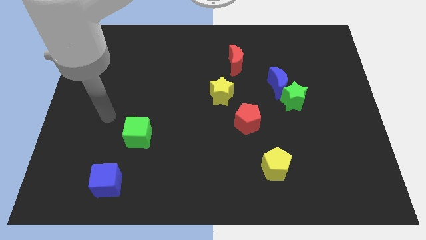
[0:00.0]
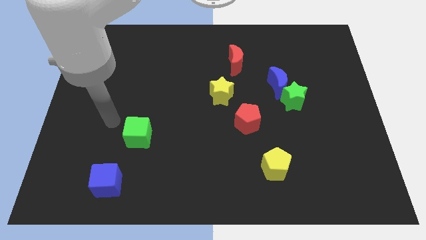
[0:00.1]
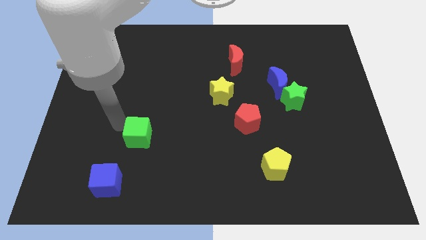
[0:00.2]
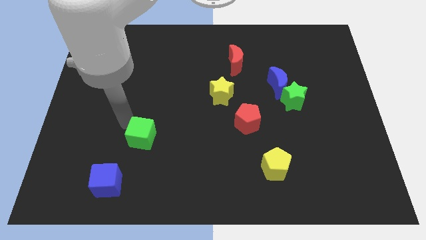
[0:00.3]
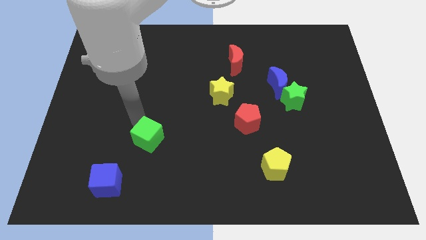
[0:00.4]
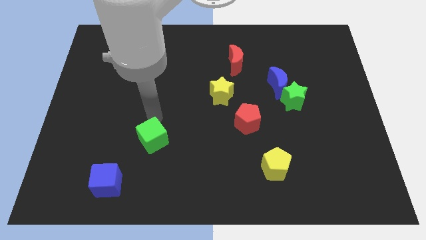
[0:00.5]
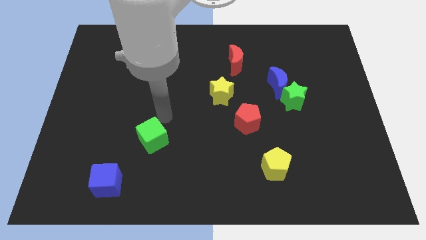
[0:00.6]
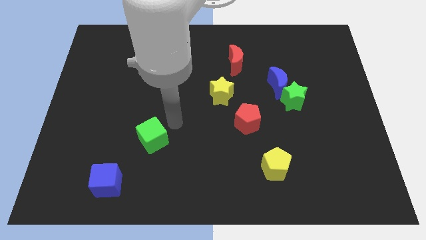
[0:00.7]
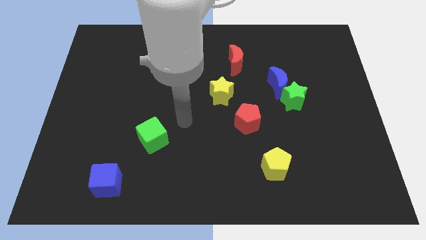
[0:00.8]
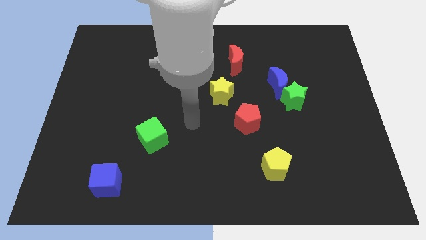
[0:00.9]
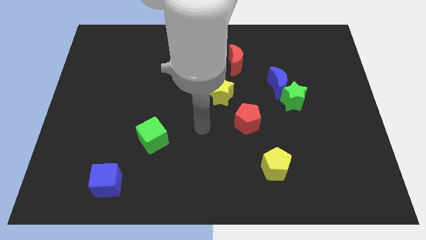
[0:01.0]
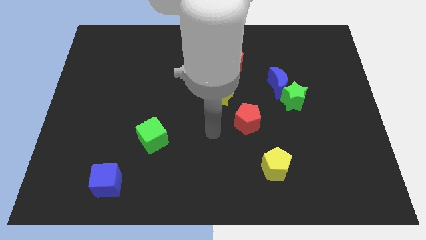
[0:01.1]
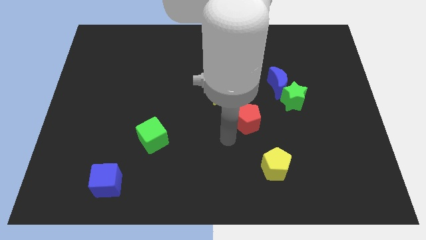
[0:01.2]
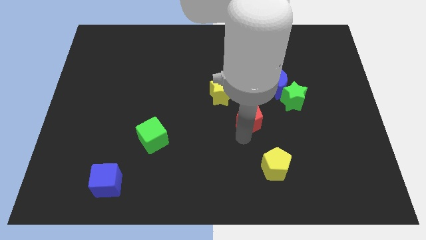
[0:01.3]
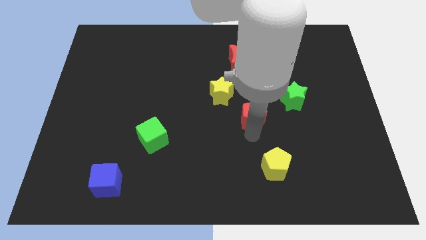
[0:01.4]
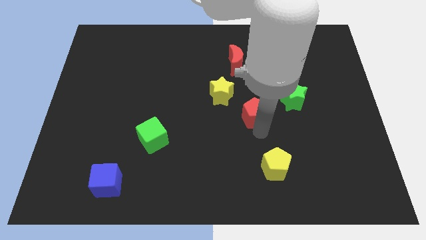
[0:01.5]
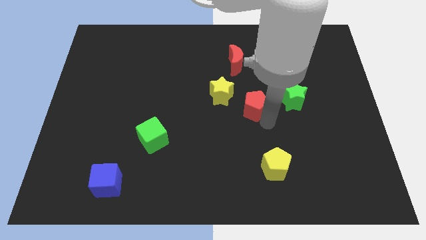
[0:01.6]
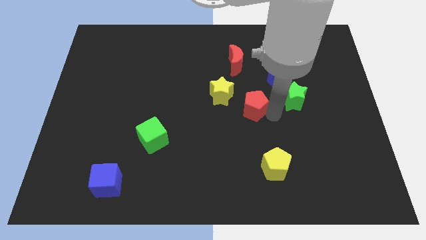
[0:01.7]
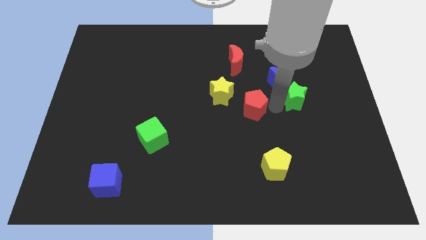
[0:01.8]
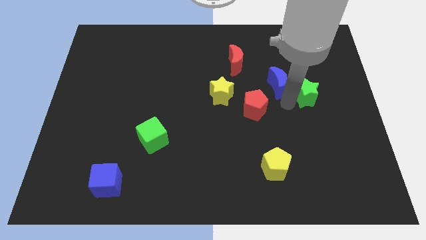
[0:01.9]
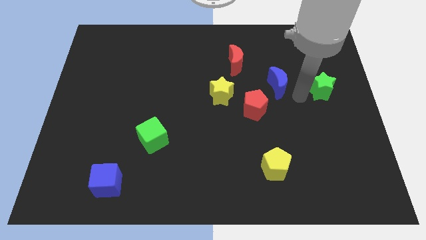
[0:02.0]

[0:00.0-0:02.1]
move the blue moon away from the green star

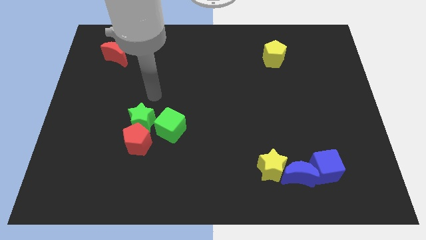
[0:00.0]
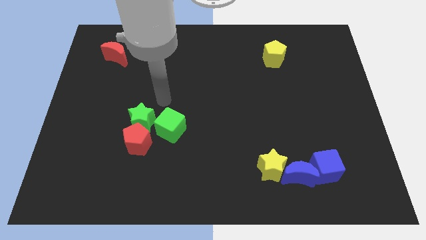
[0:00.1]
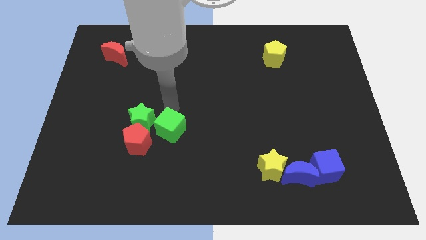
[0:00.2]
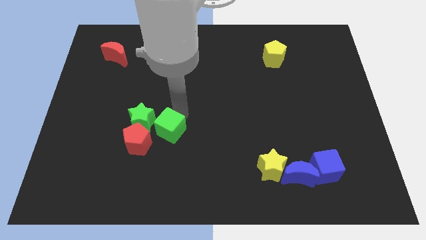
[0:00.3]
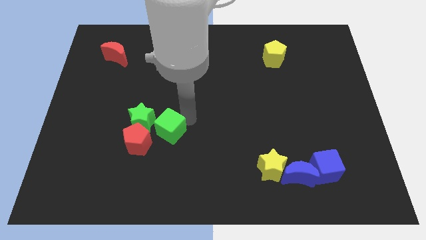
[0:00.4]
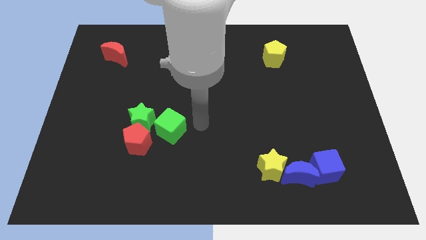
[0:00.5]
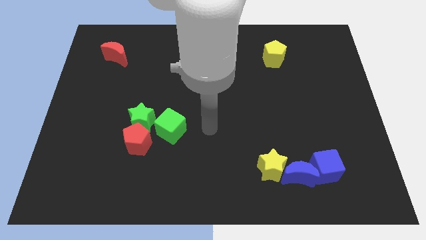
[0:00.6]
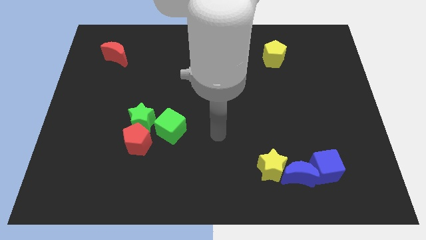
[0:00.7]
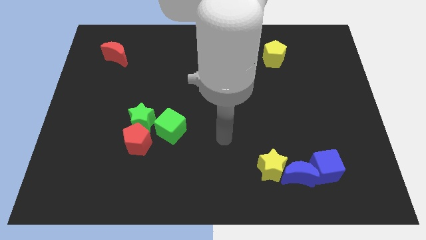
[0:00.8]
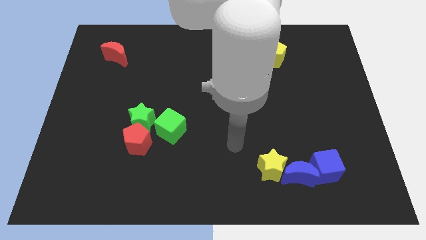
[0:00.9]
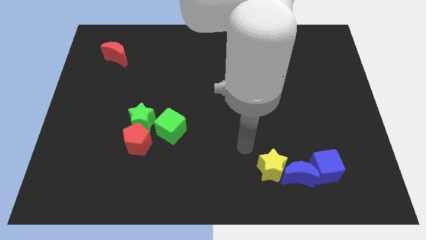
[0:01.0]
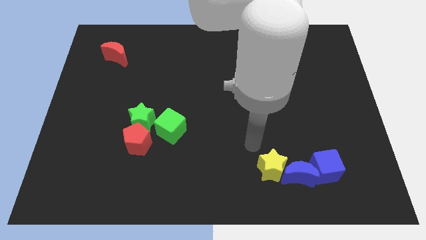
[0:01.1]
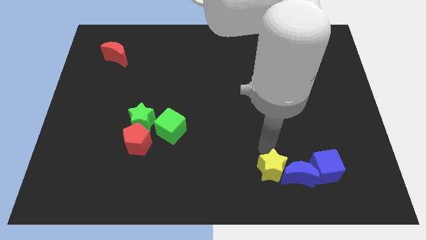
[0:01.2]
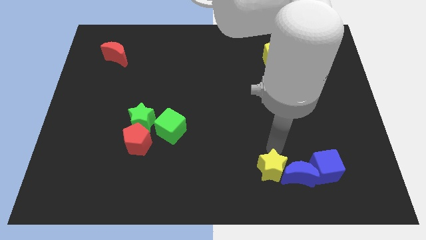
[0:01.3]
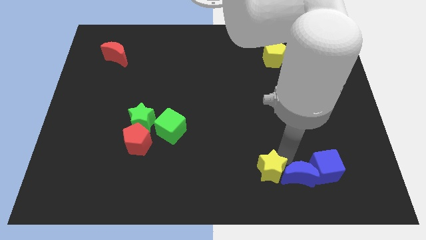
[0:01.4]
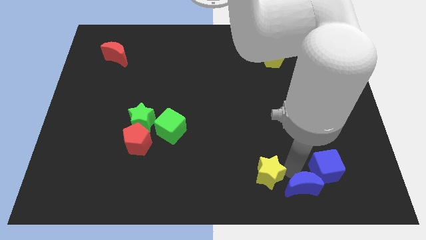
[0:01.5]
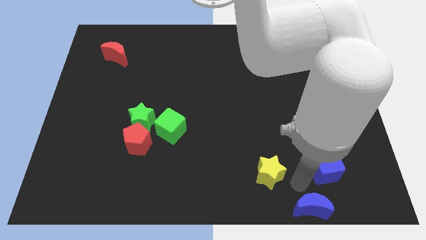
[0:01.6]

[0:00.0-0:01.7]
move the yellow star away from the blue moon

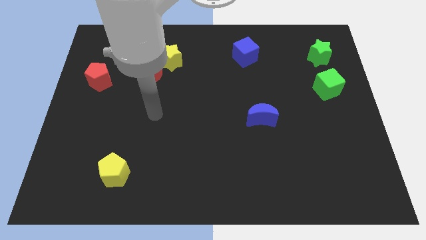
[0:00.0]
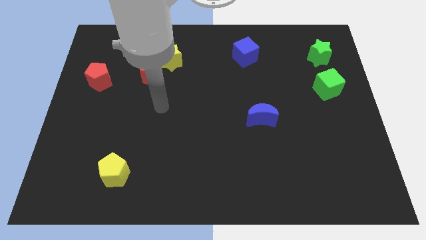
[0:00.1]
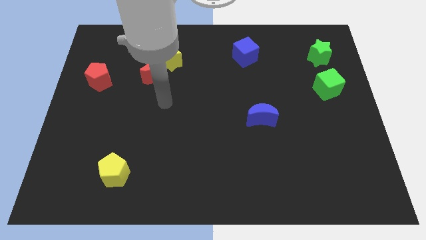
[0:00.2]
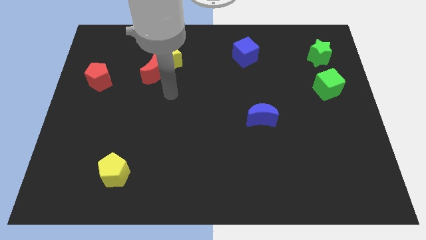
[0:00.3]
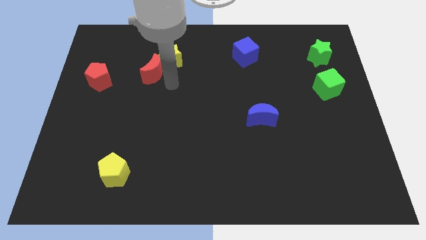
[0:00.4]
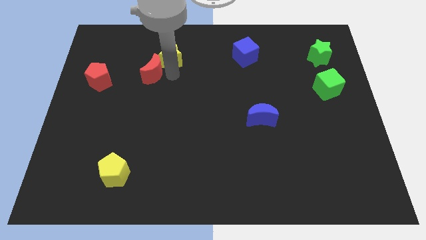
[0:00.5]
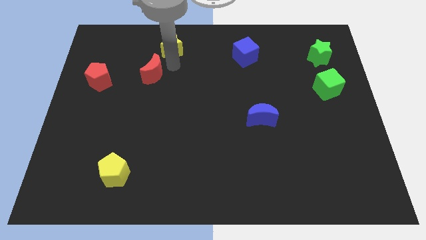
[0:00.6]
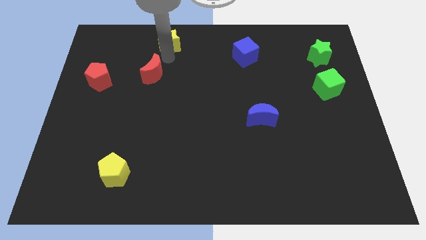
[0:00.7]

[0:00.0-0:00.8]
separate the red moon from the yellow star

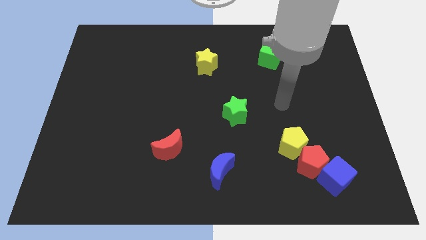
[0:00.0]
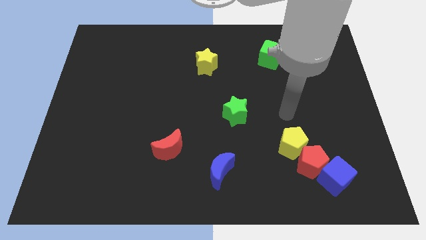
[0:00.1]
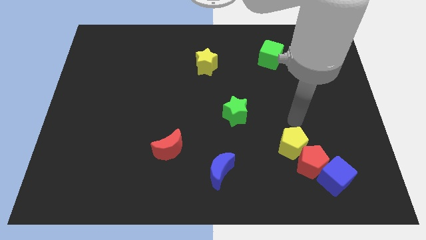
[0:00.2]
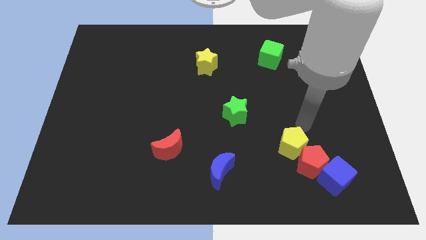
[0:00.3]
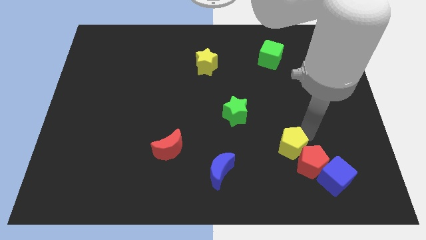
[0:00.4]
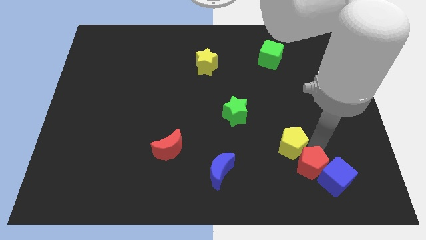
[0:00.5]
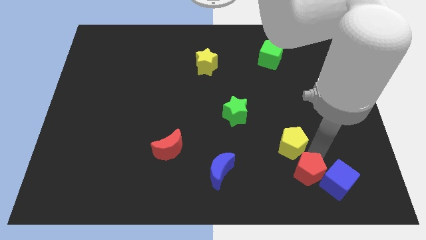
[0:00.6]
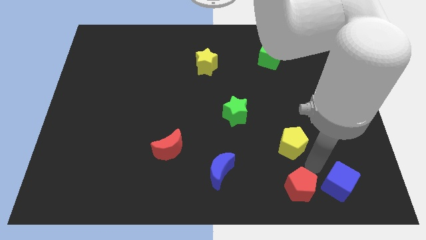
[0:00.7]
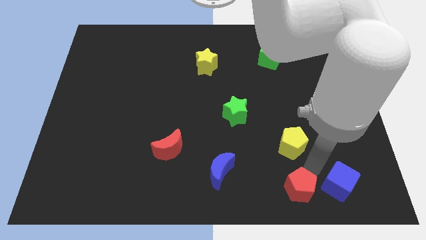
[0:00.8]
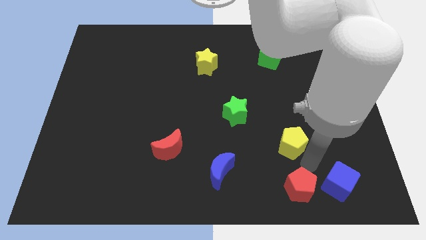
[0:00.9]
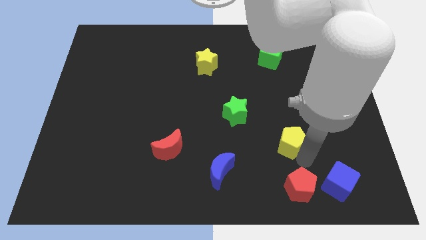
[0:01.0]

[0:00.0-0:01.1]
move the yellow pentagon away from the red pentagon

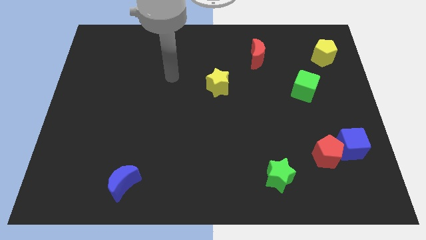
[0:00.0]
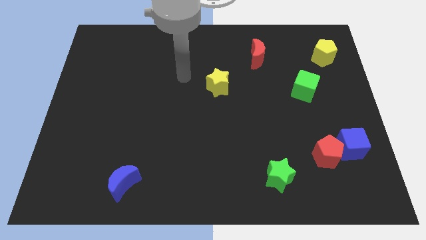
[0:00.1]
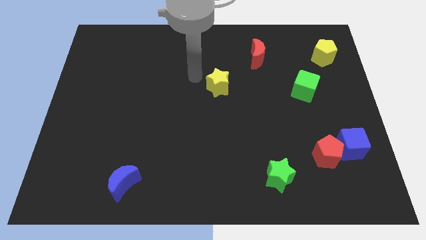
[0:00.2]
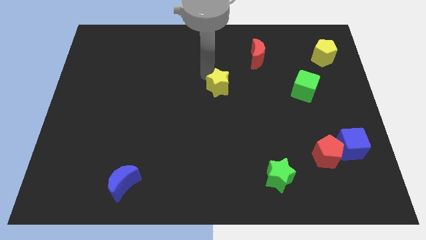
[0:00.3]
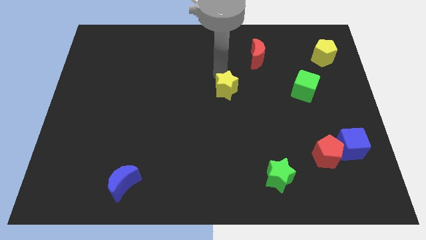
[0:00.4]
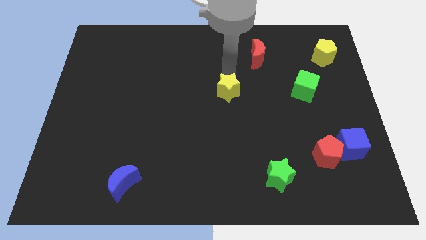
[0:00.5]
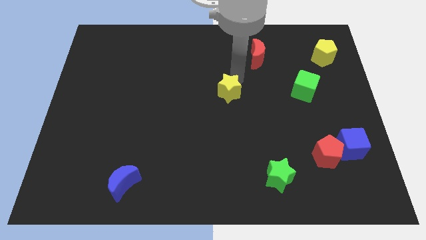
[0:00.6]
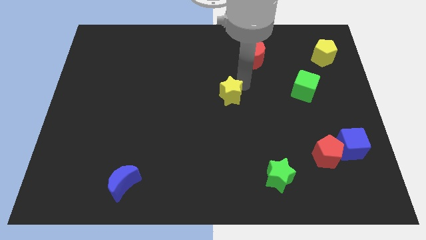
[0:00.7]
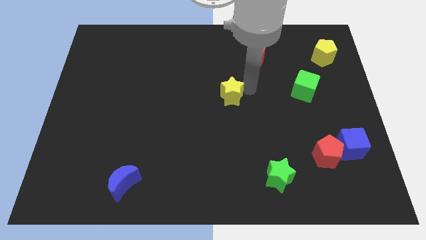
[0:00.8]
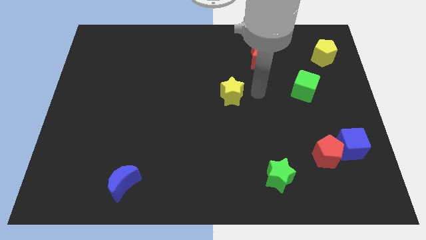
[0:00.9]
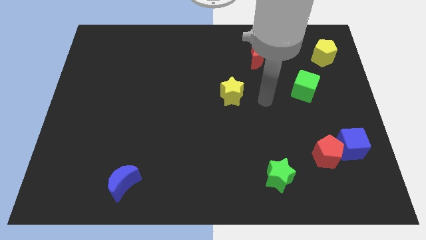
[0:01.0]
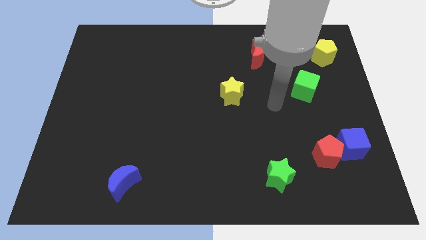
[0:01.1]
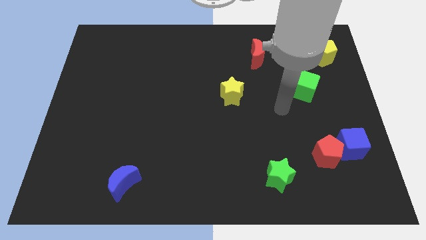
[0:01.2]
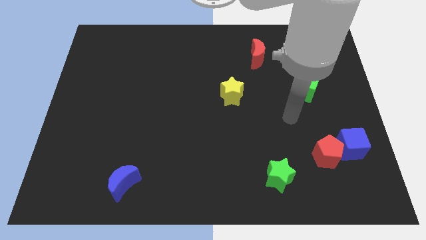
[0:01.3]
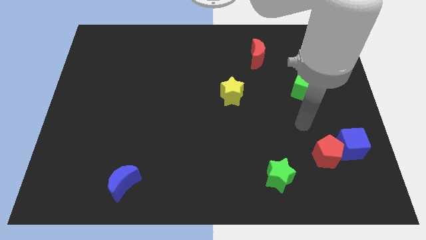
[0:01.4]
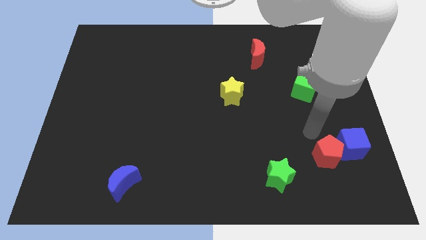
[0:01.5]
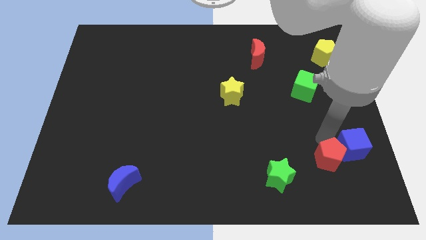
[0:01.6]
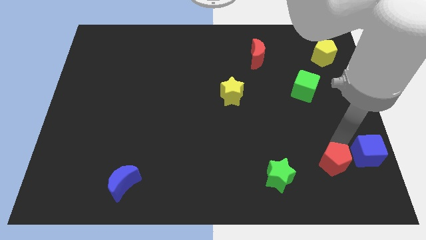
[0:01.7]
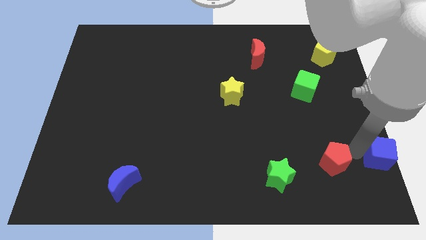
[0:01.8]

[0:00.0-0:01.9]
separate the red pentagon from the blue cube

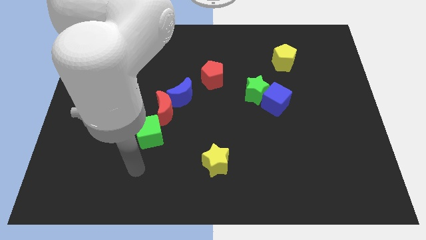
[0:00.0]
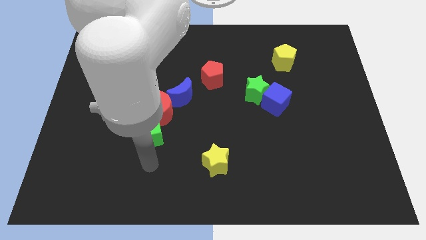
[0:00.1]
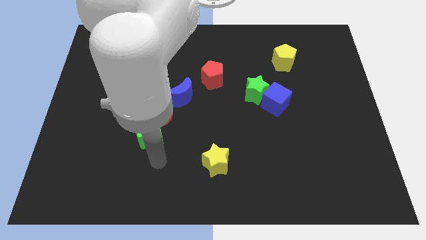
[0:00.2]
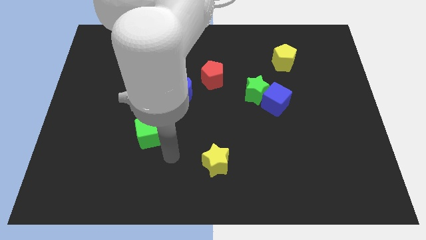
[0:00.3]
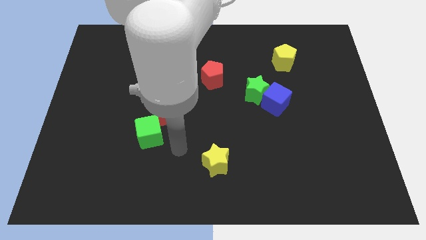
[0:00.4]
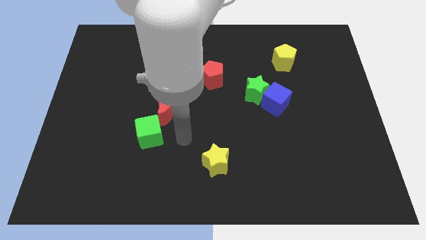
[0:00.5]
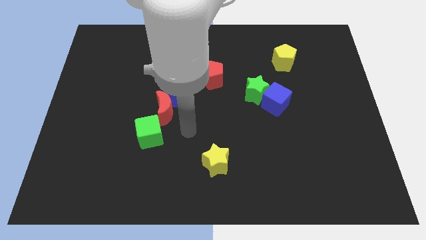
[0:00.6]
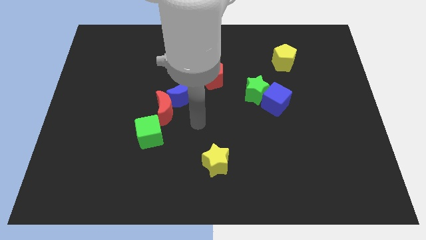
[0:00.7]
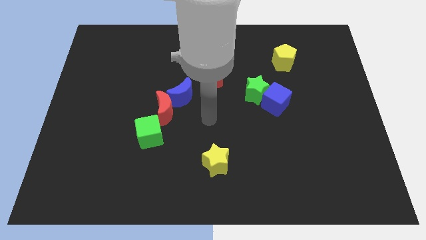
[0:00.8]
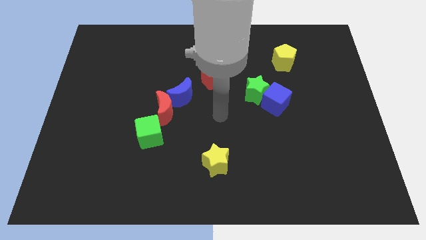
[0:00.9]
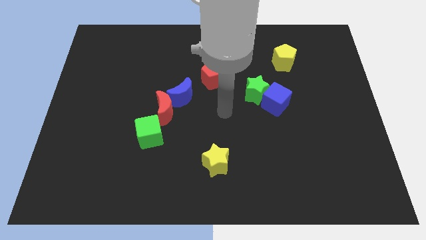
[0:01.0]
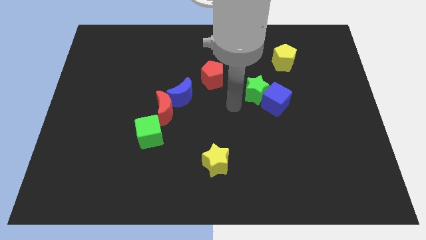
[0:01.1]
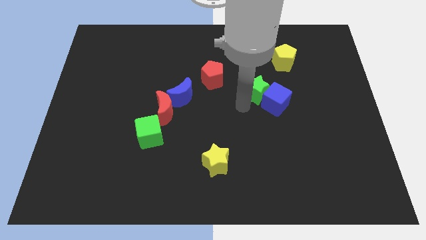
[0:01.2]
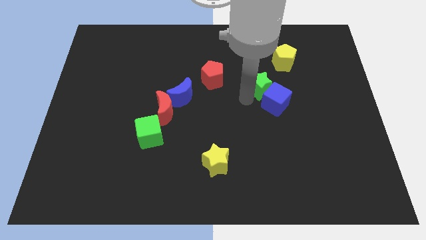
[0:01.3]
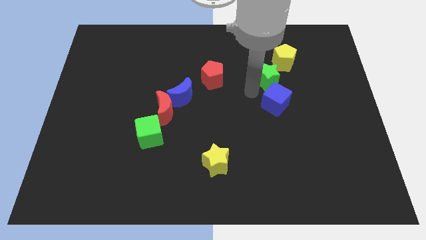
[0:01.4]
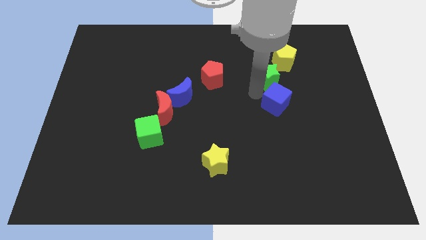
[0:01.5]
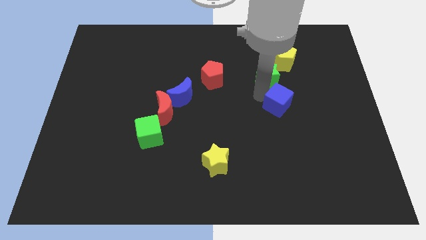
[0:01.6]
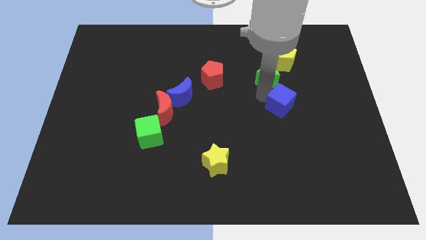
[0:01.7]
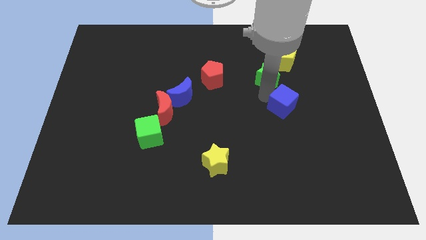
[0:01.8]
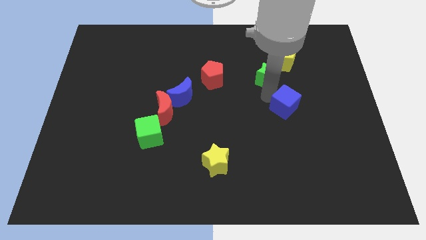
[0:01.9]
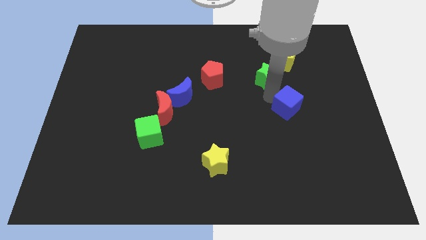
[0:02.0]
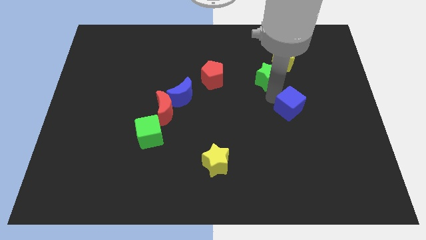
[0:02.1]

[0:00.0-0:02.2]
separate the blue cube from the green star
